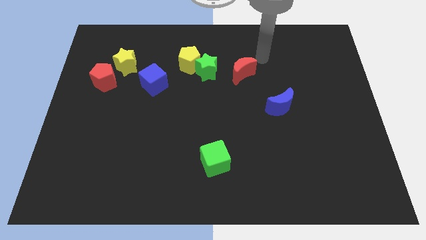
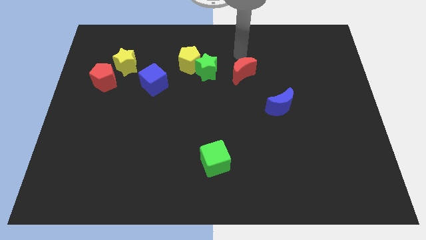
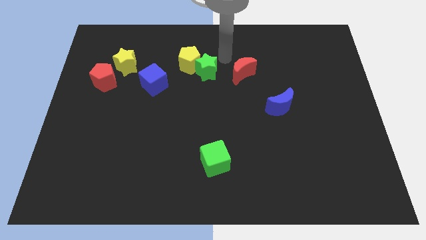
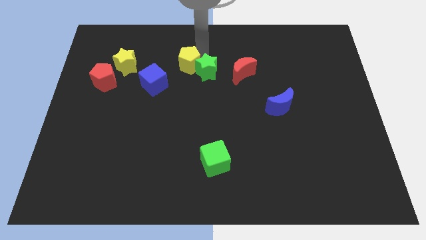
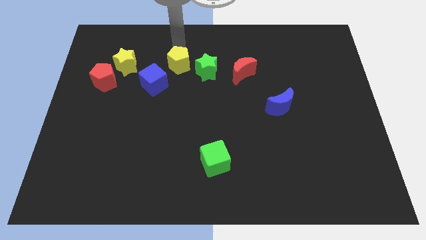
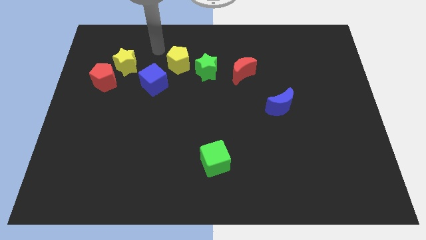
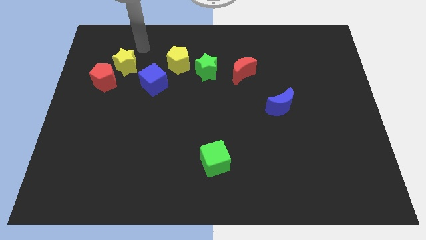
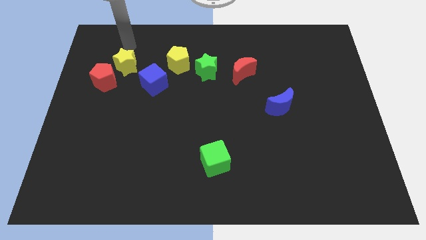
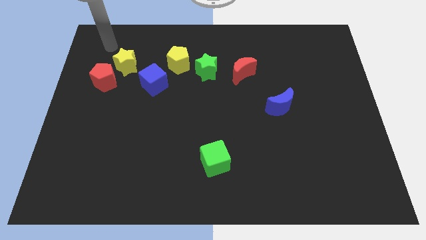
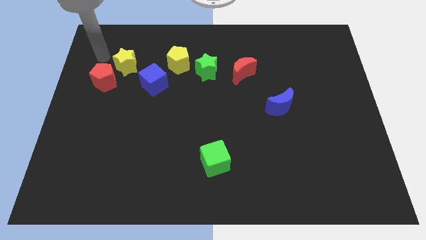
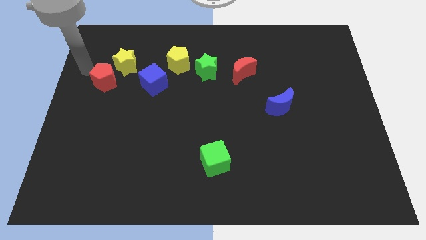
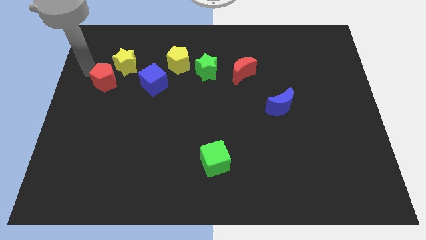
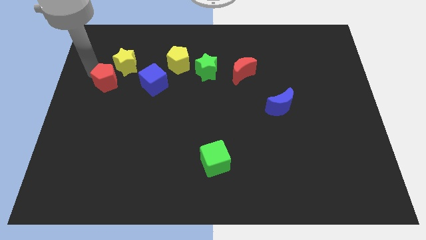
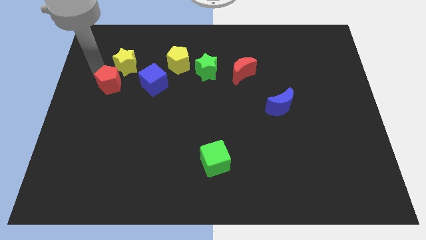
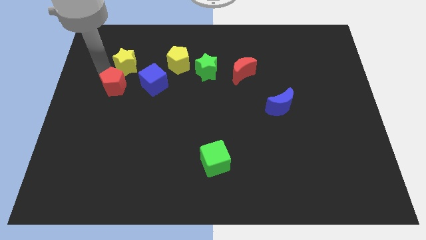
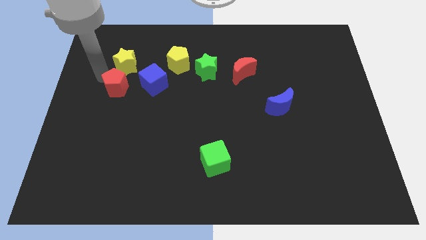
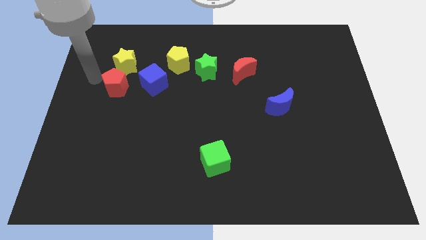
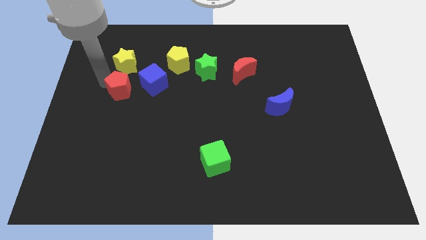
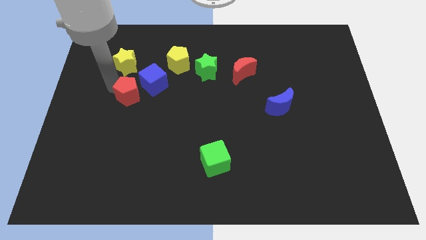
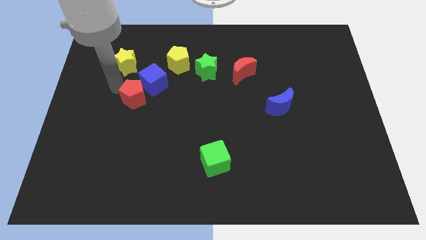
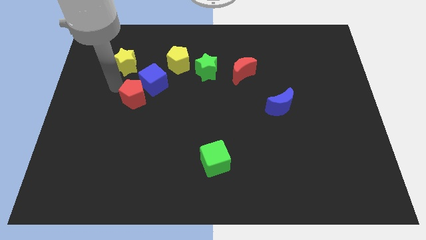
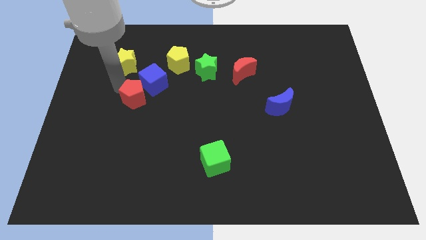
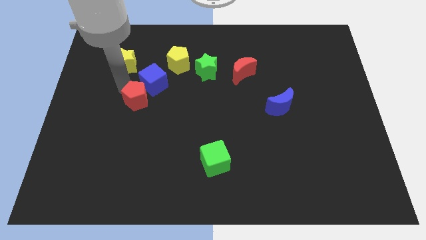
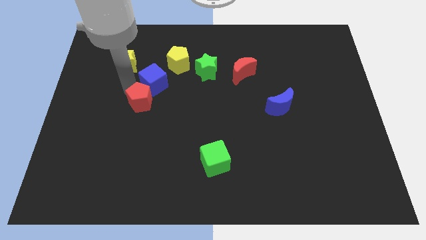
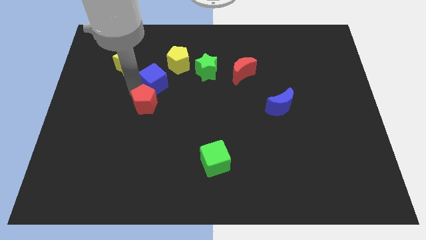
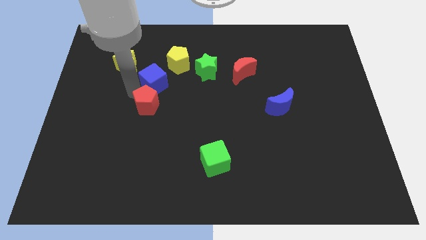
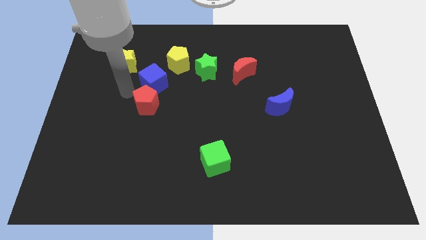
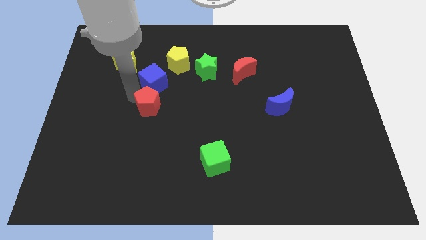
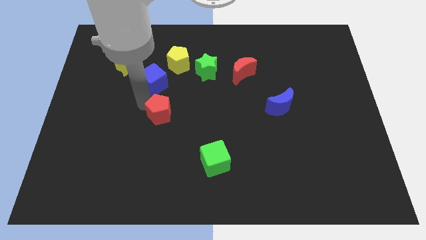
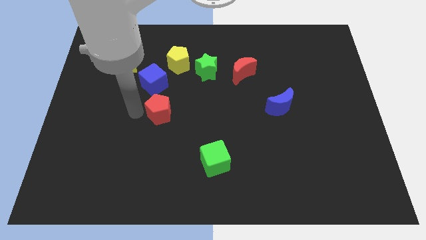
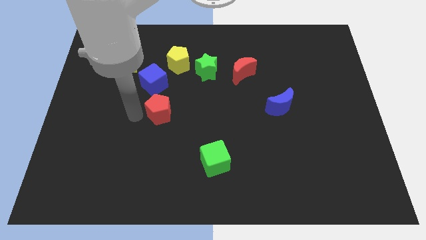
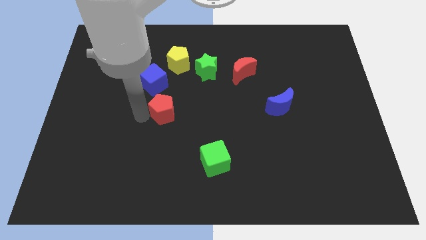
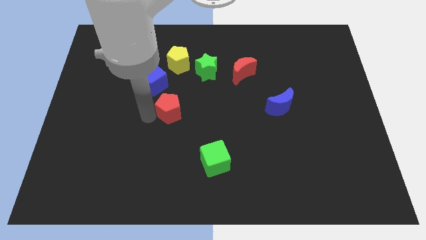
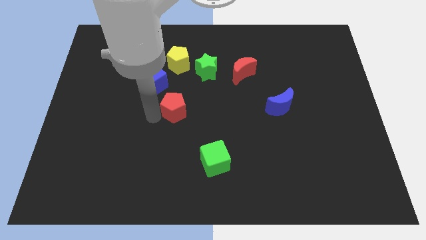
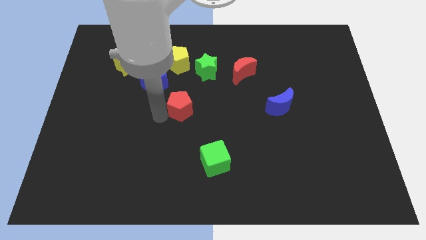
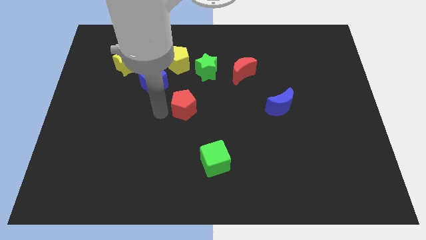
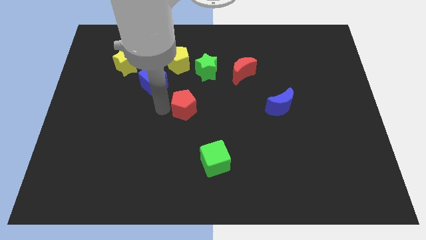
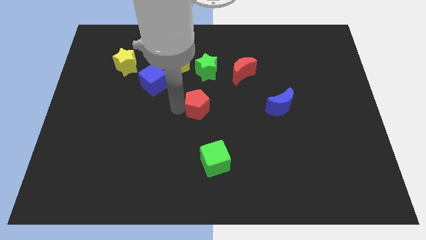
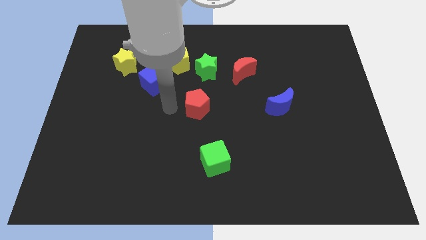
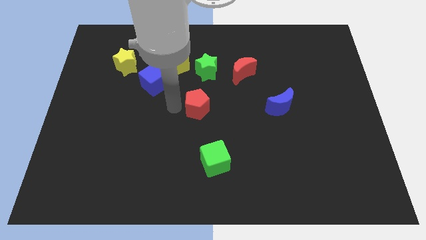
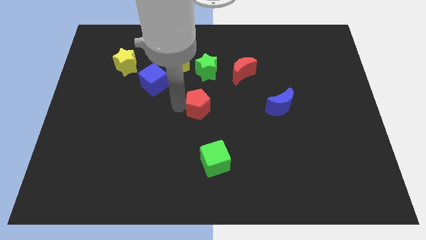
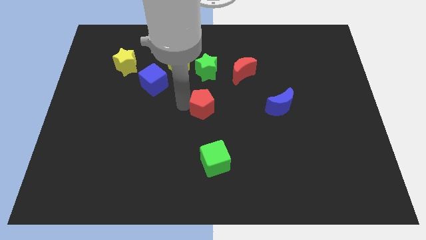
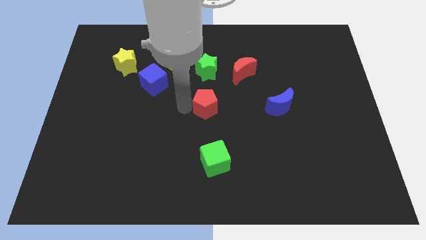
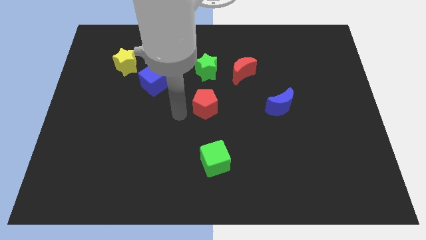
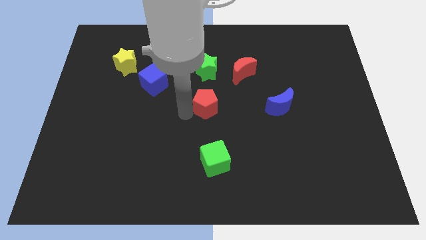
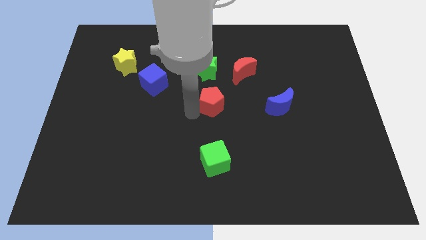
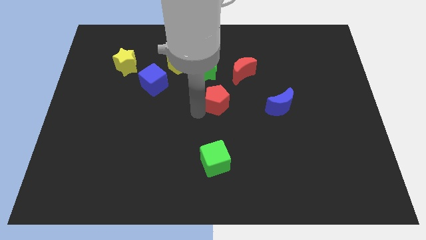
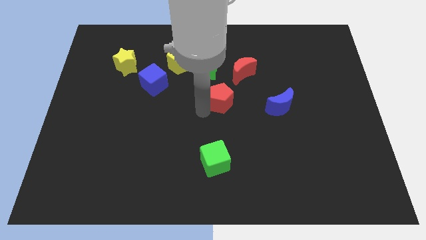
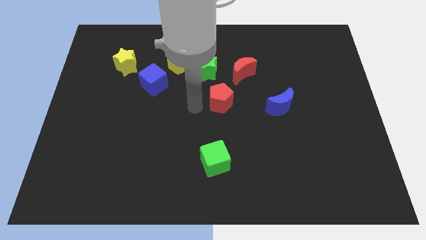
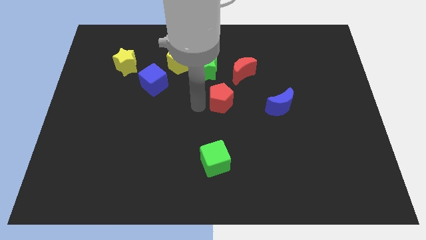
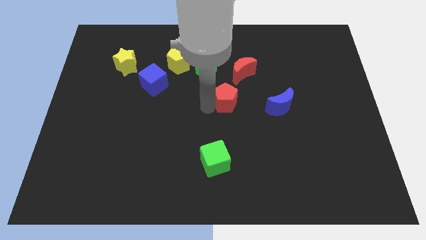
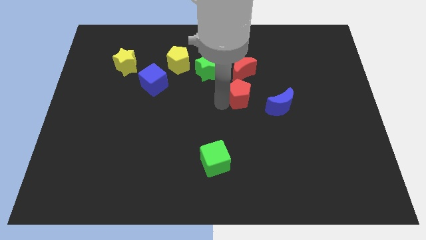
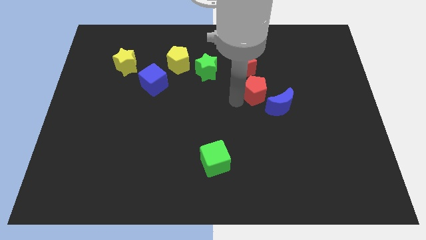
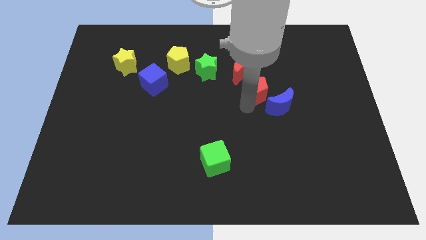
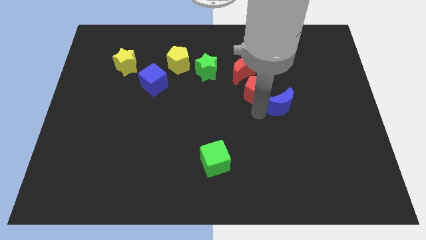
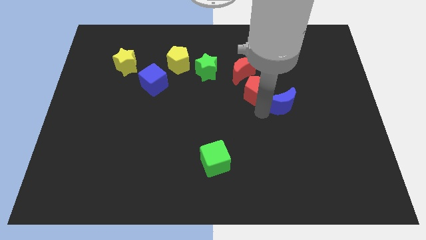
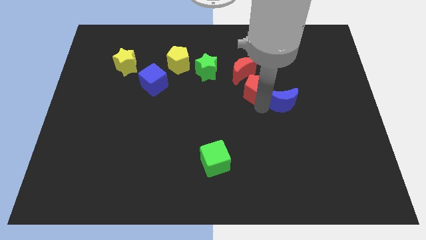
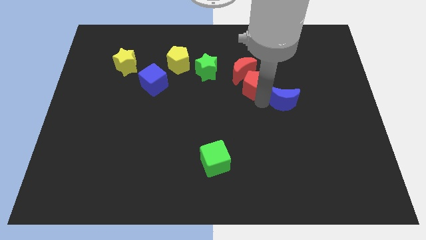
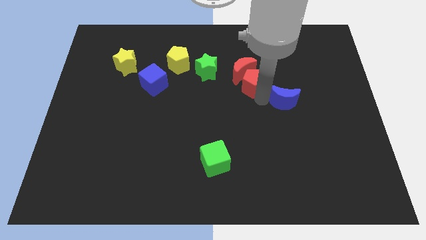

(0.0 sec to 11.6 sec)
push the red pentagon just right of the green star

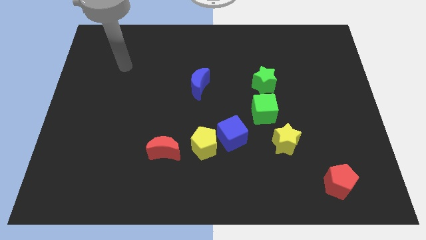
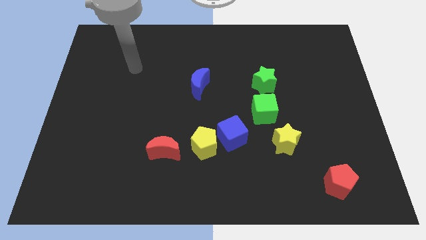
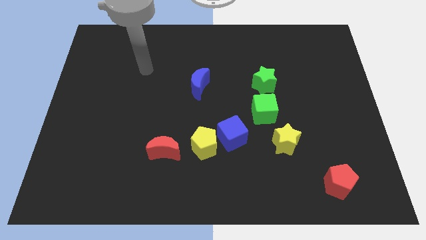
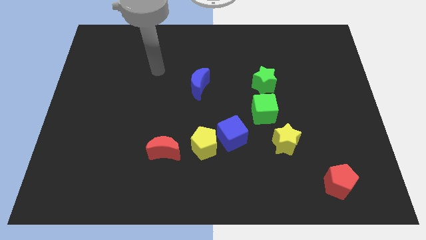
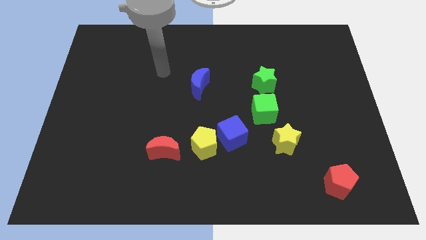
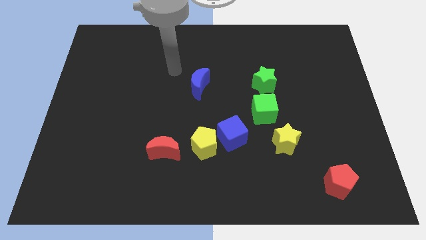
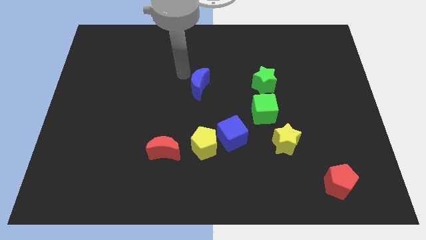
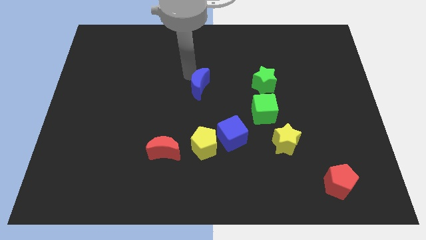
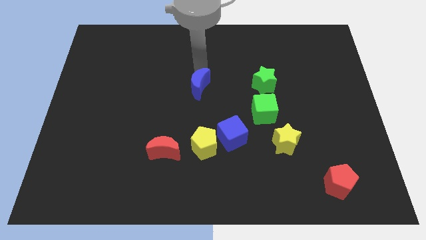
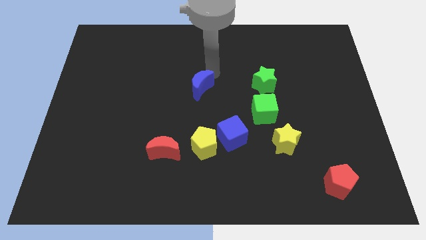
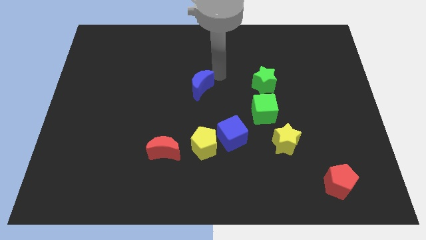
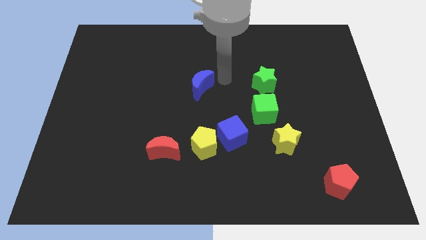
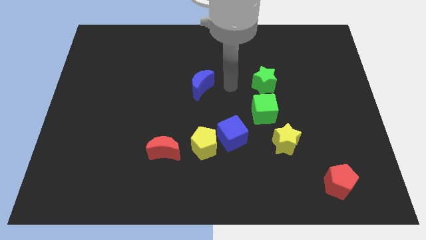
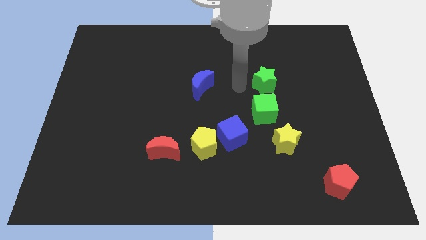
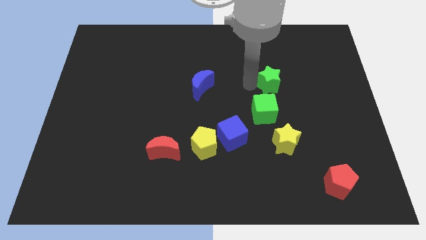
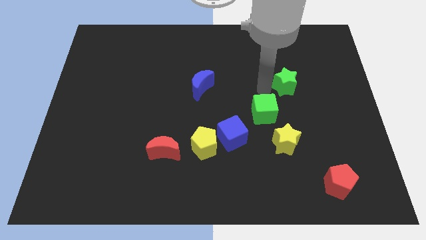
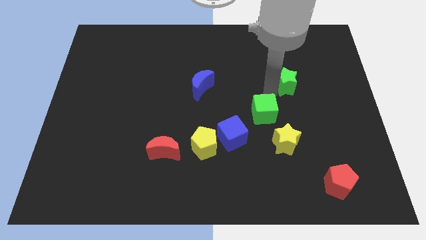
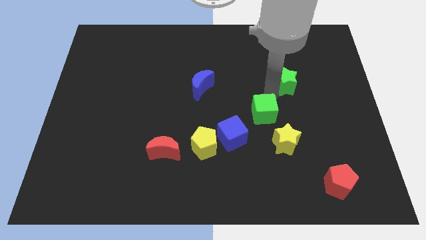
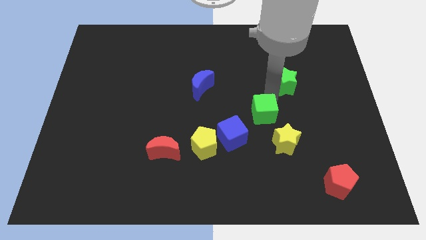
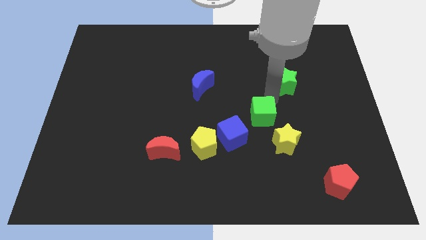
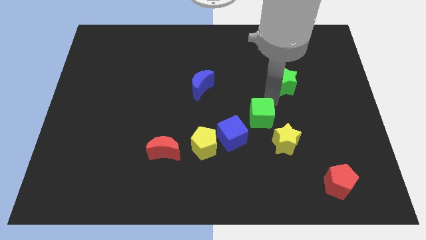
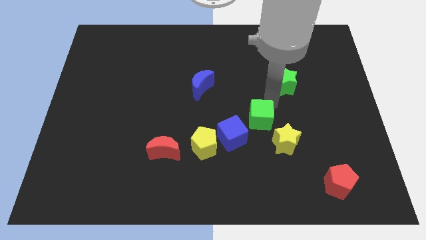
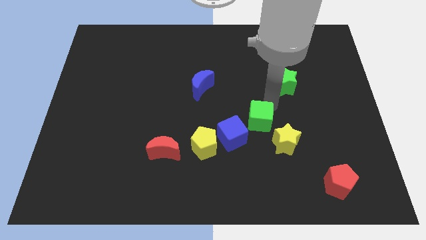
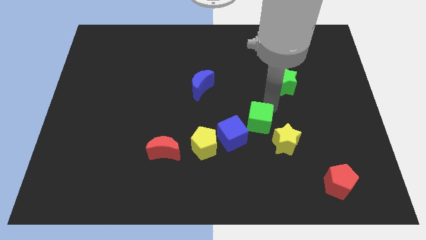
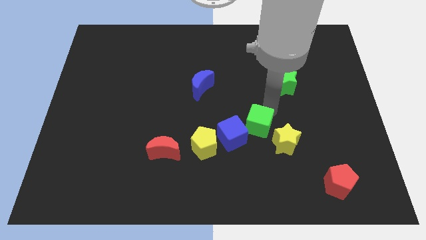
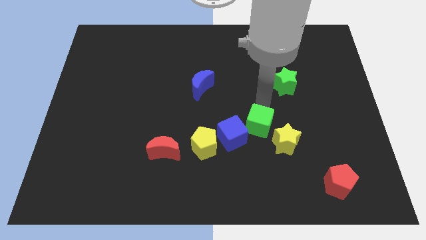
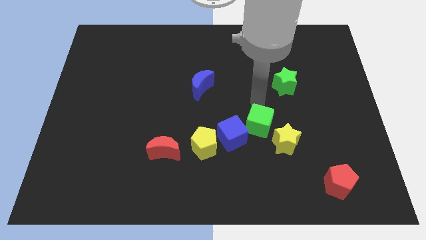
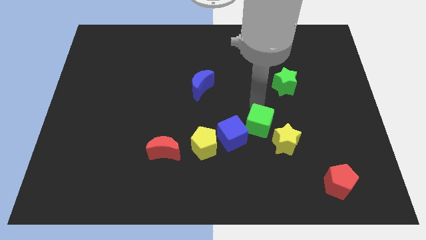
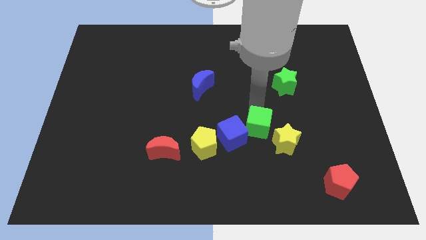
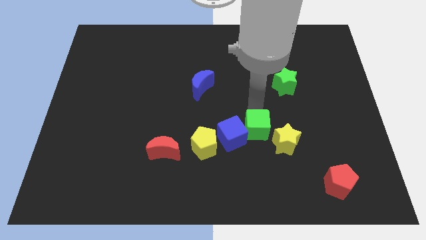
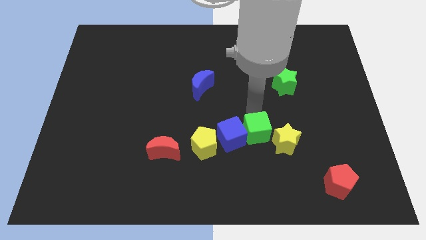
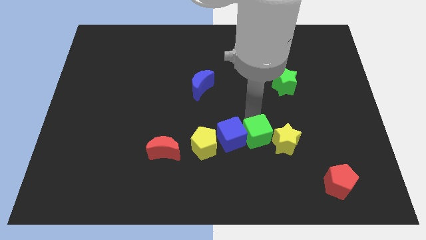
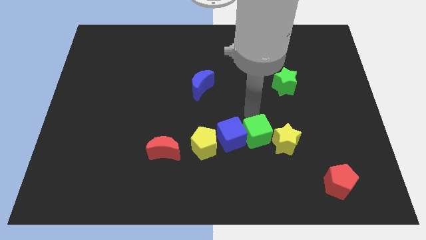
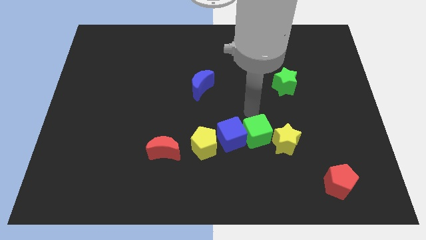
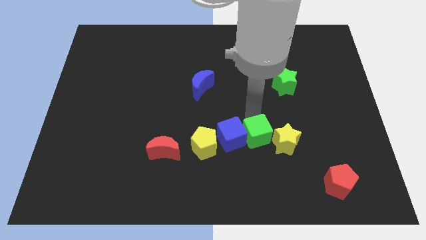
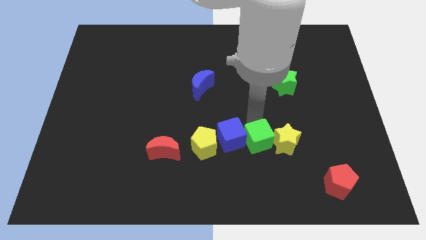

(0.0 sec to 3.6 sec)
move the green cube diagonally down and to the left of the yellow star
